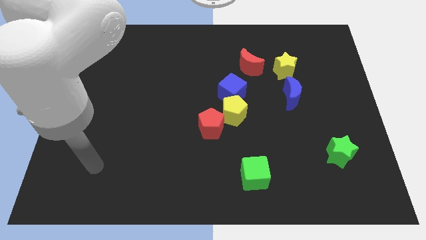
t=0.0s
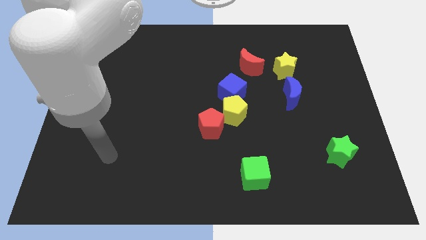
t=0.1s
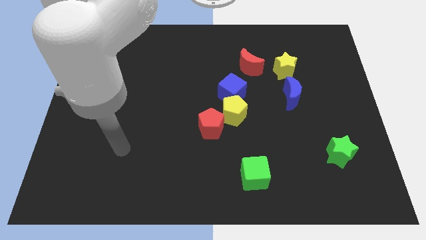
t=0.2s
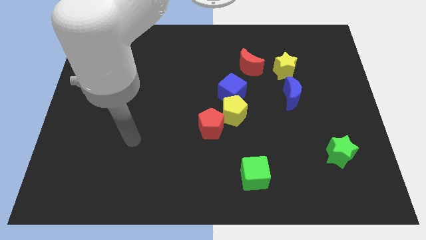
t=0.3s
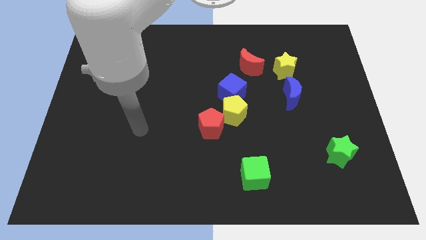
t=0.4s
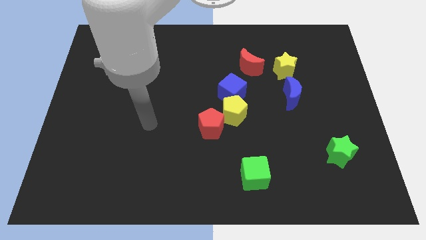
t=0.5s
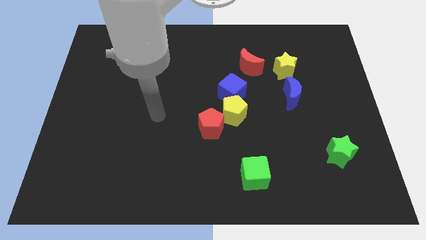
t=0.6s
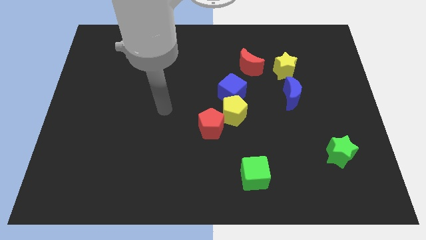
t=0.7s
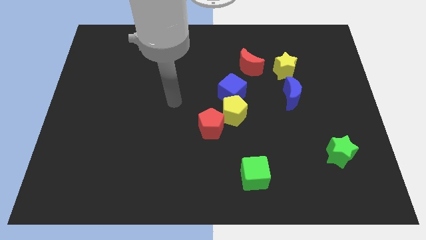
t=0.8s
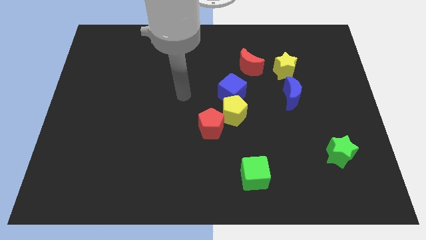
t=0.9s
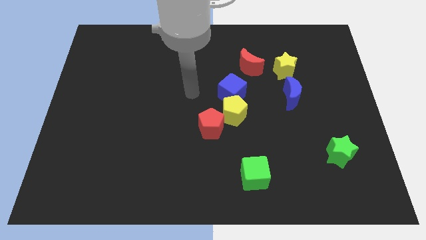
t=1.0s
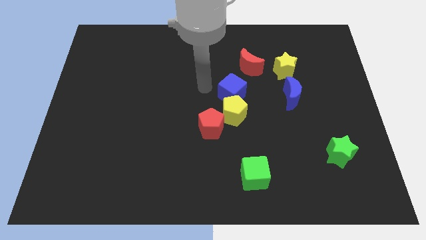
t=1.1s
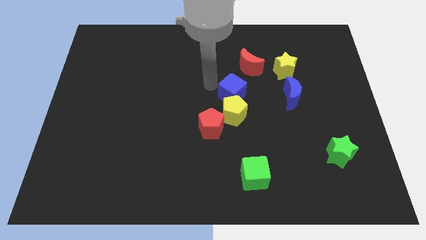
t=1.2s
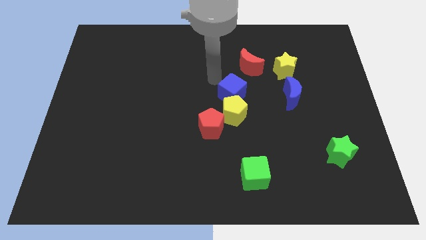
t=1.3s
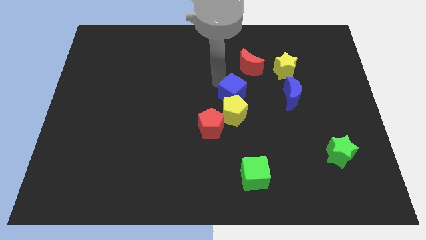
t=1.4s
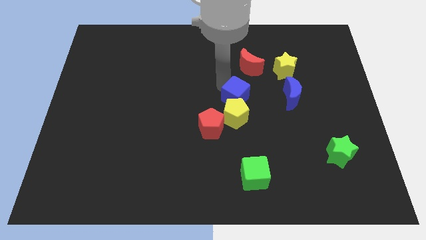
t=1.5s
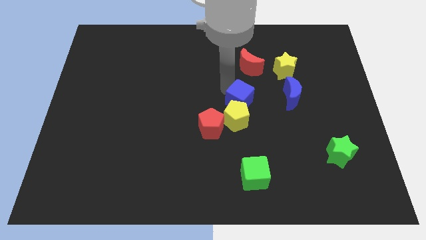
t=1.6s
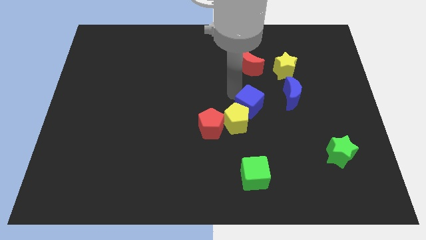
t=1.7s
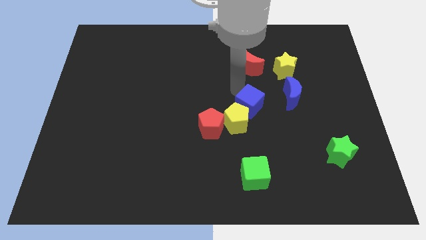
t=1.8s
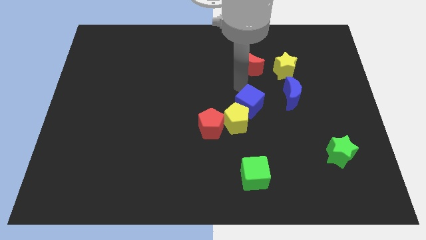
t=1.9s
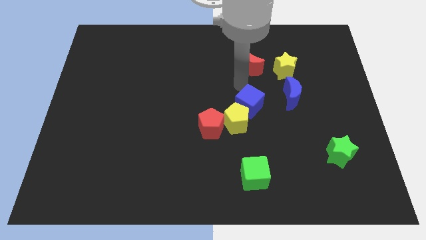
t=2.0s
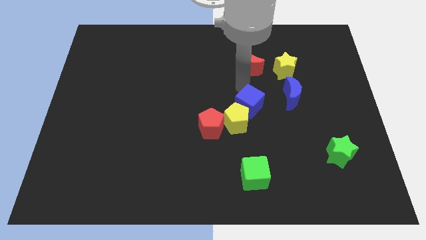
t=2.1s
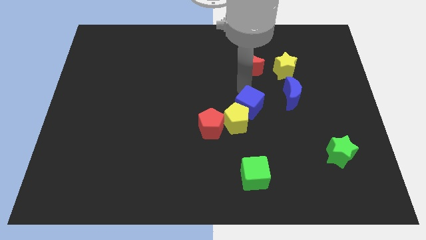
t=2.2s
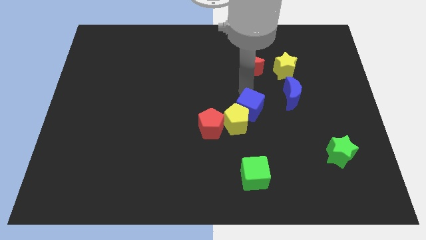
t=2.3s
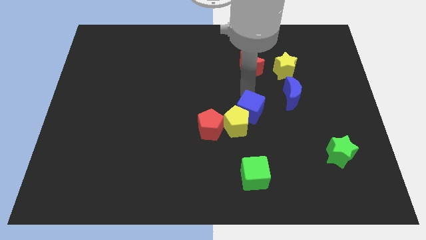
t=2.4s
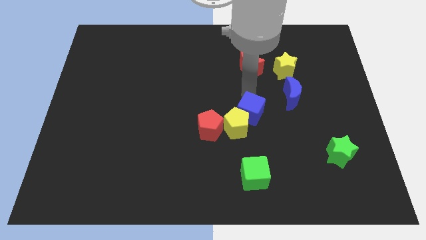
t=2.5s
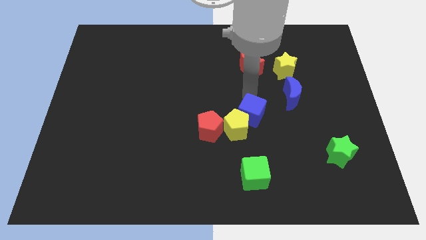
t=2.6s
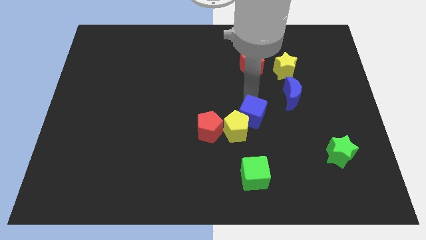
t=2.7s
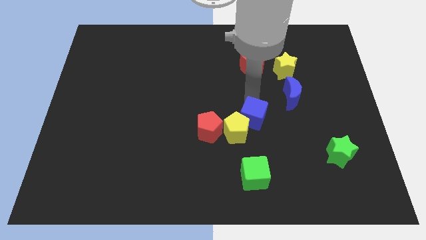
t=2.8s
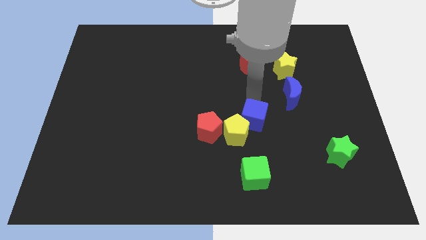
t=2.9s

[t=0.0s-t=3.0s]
move the blue cube a little down

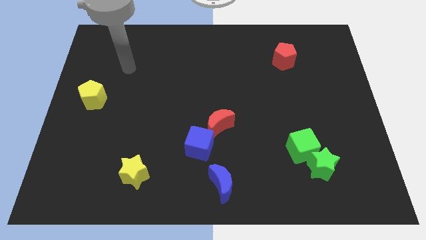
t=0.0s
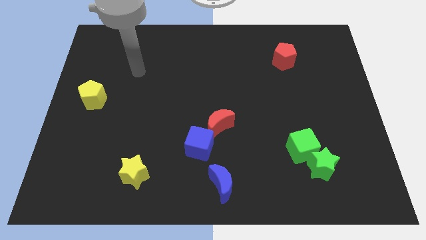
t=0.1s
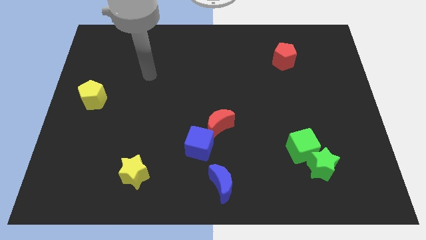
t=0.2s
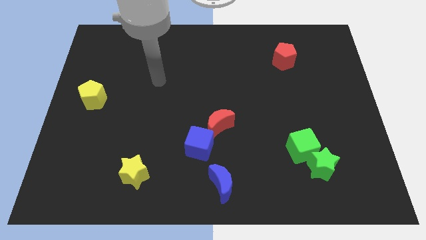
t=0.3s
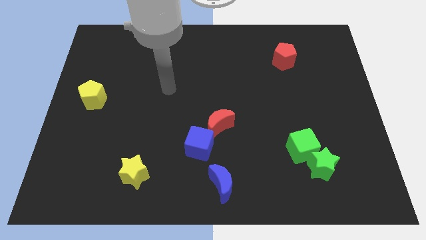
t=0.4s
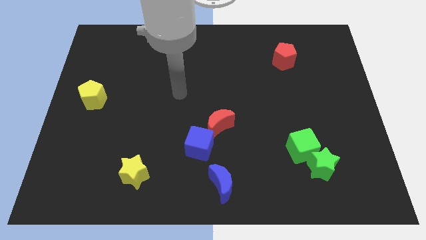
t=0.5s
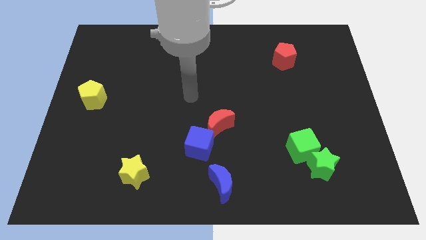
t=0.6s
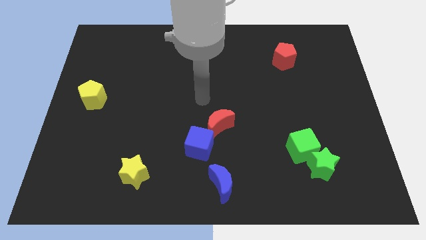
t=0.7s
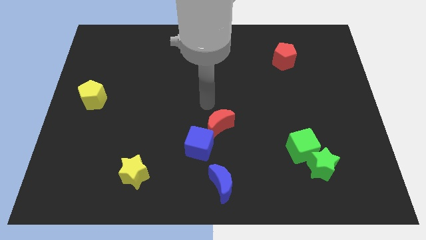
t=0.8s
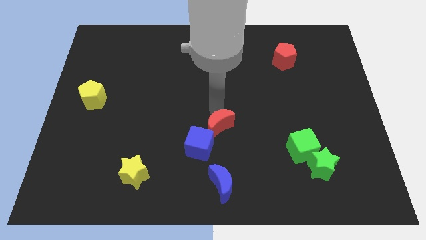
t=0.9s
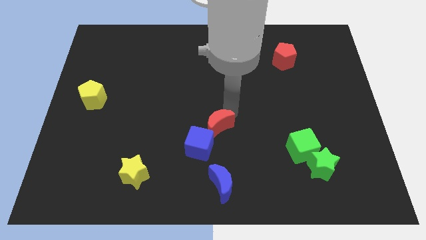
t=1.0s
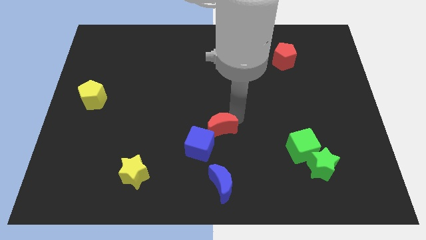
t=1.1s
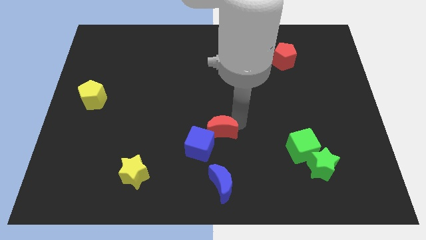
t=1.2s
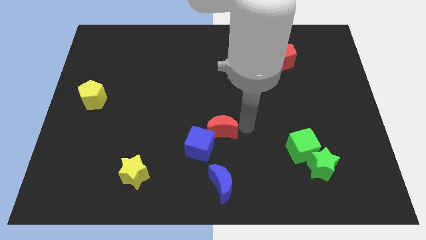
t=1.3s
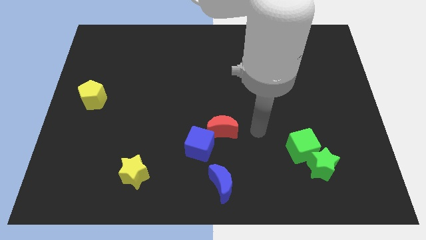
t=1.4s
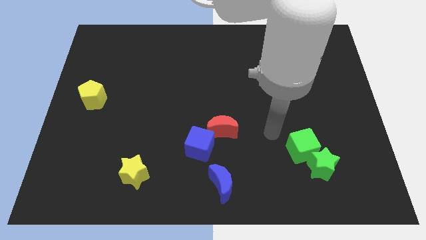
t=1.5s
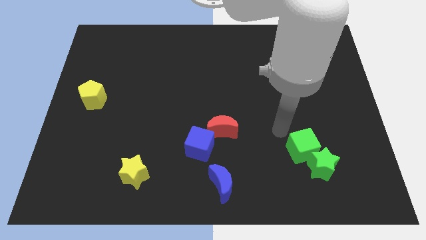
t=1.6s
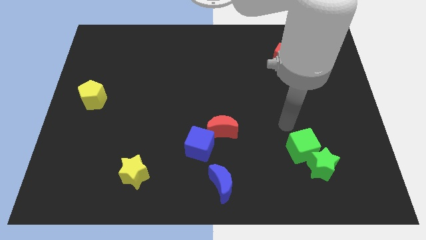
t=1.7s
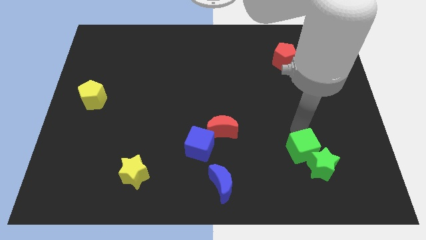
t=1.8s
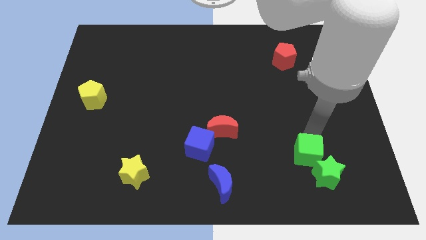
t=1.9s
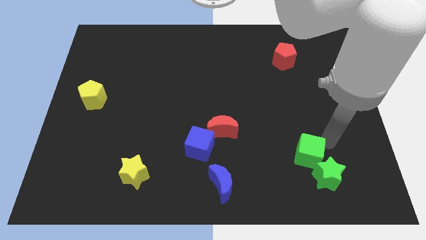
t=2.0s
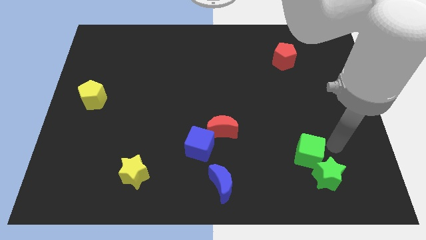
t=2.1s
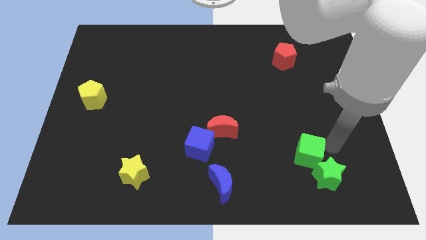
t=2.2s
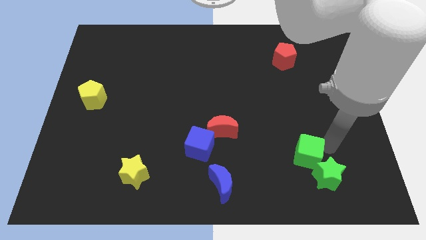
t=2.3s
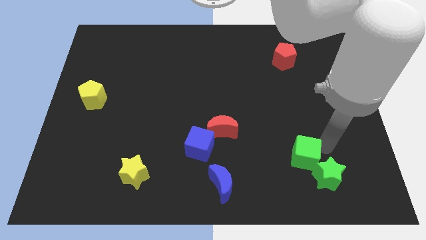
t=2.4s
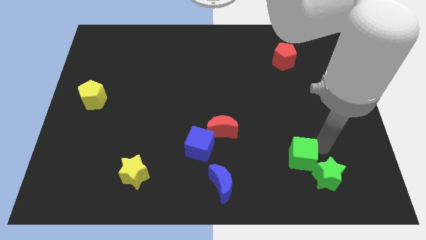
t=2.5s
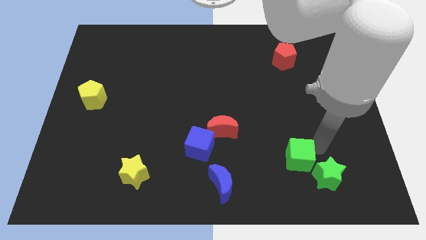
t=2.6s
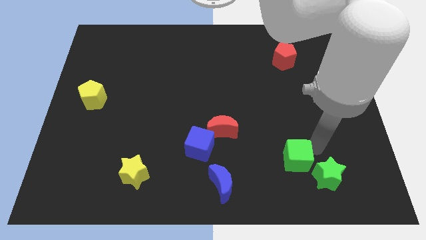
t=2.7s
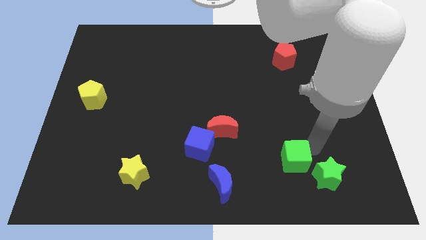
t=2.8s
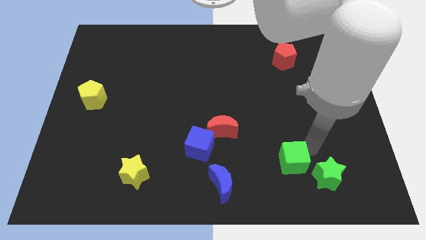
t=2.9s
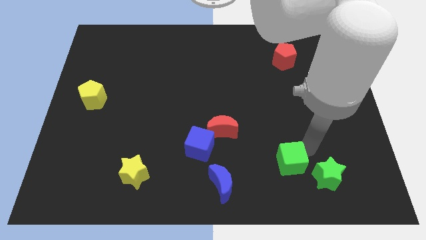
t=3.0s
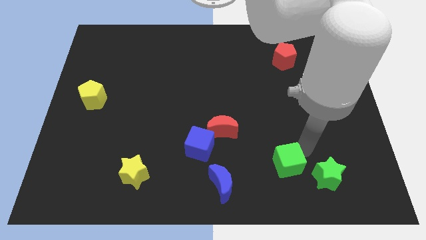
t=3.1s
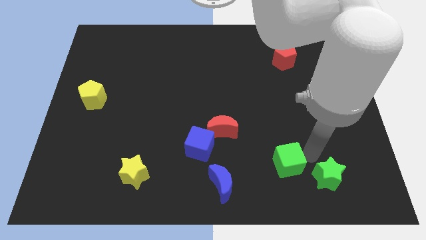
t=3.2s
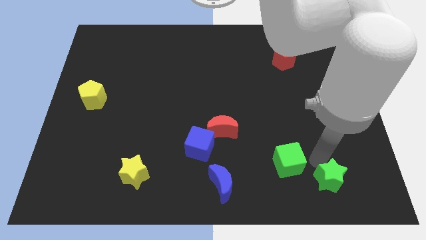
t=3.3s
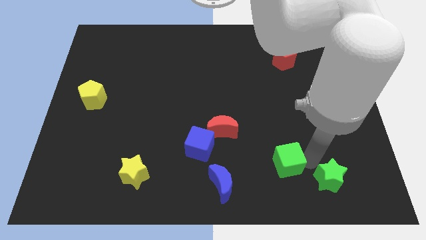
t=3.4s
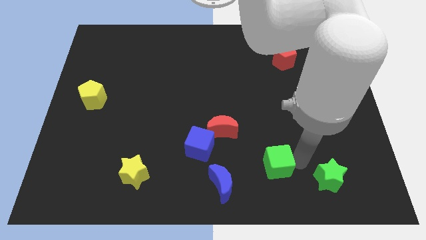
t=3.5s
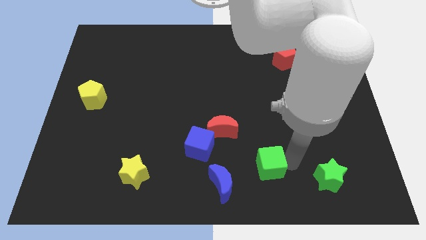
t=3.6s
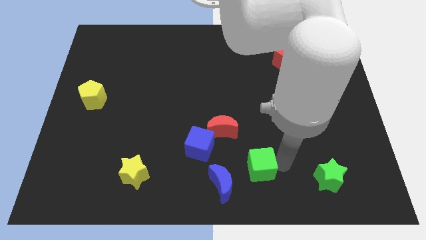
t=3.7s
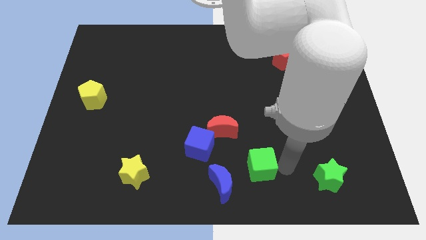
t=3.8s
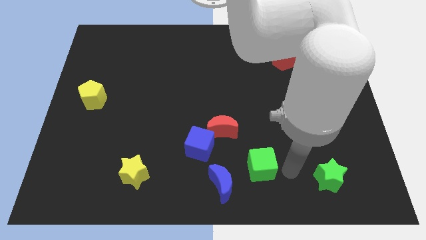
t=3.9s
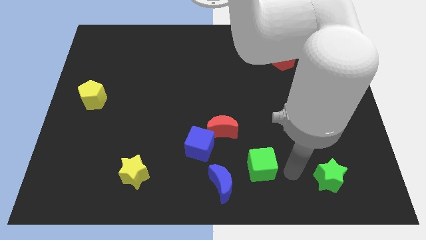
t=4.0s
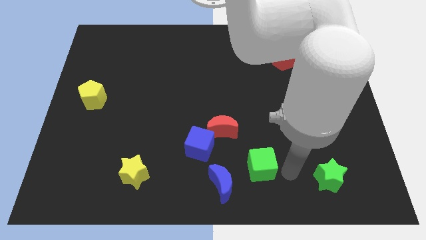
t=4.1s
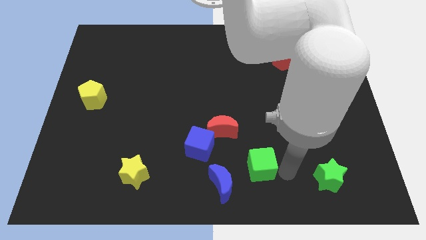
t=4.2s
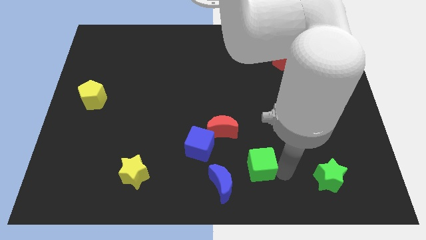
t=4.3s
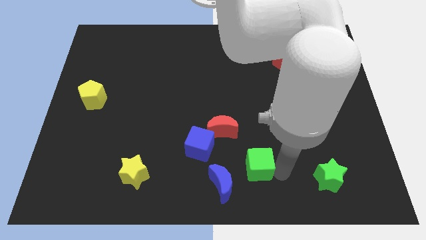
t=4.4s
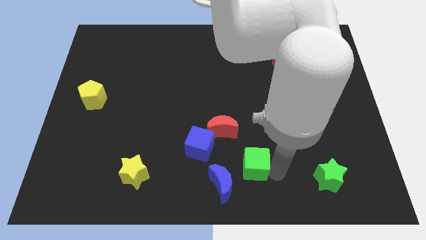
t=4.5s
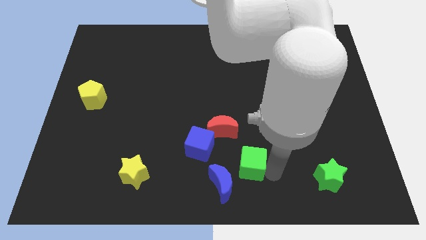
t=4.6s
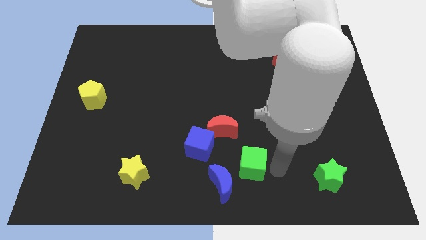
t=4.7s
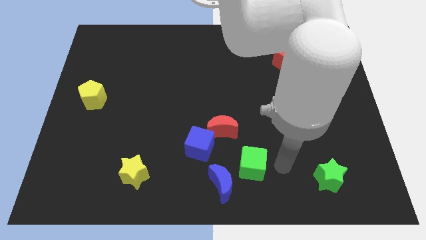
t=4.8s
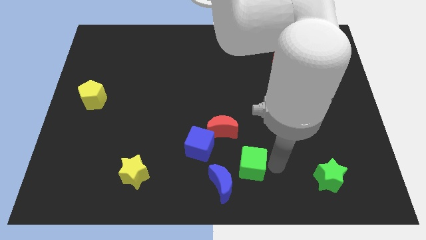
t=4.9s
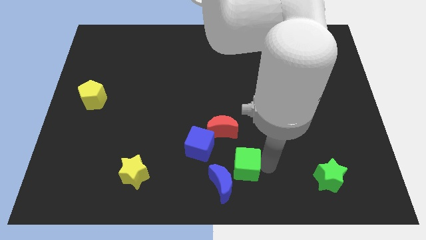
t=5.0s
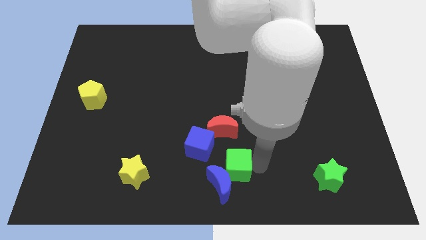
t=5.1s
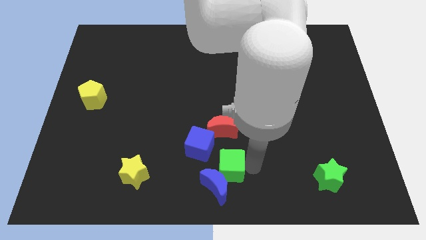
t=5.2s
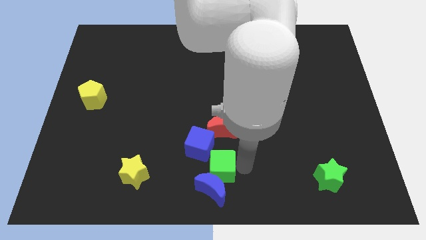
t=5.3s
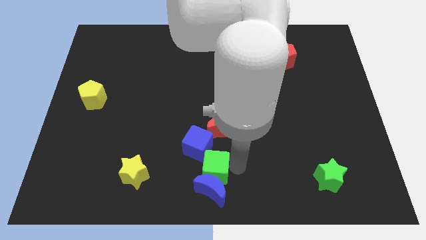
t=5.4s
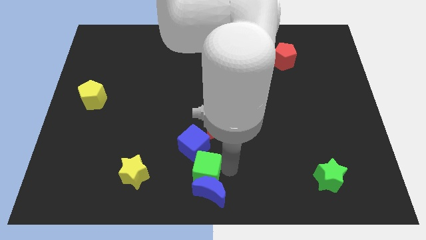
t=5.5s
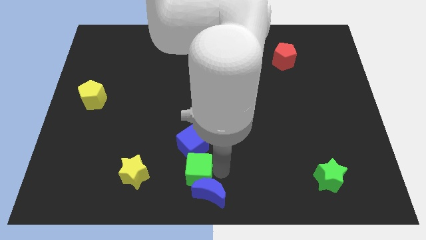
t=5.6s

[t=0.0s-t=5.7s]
move the green cube to the left
